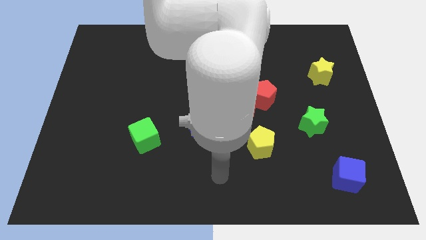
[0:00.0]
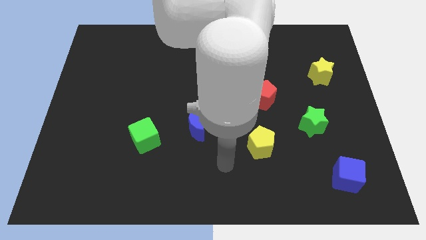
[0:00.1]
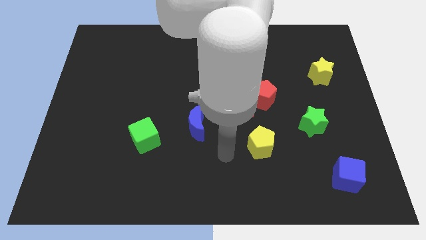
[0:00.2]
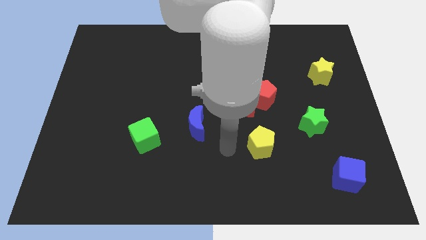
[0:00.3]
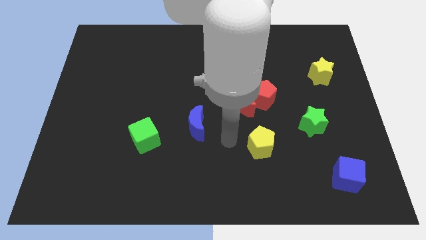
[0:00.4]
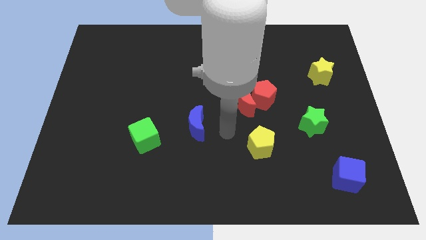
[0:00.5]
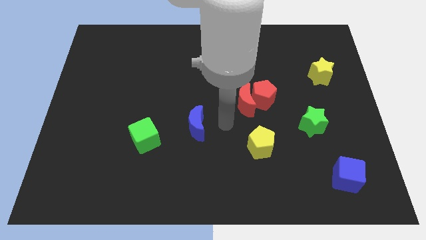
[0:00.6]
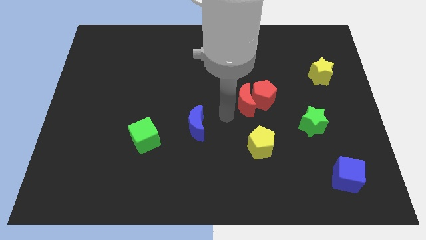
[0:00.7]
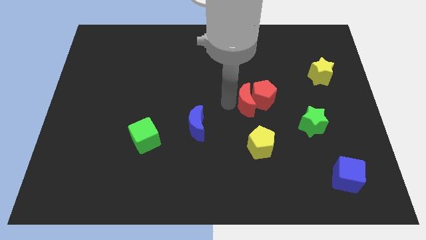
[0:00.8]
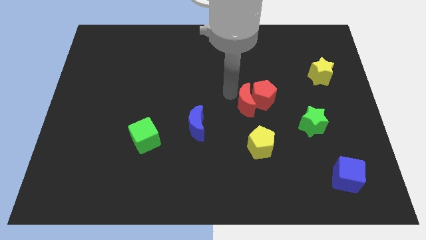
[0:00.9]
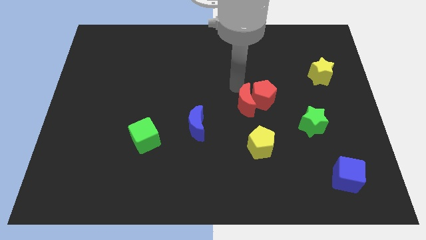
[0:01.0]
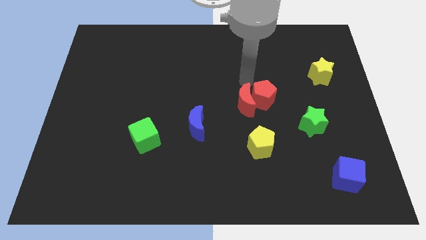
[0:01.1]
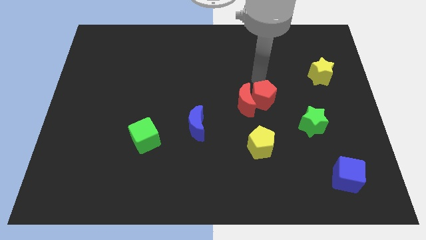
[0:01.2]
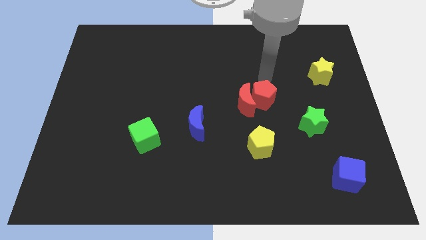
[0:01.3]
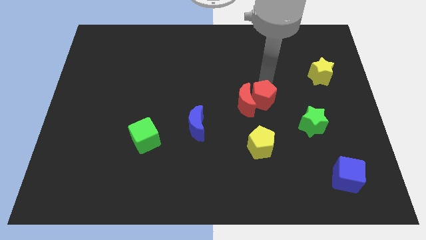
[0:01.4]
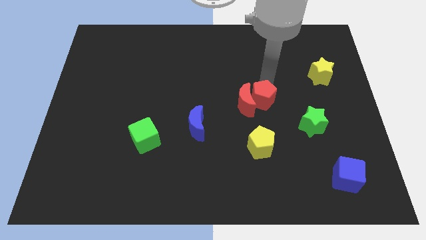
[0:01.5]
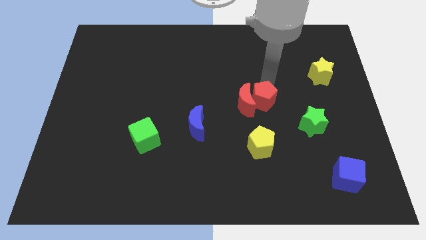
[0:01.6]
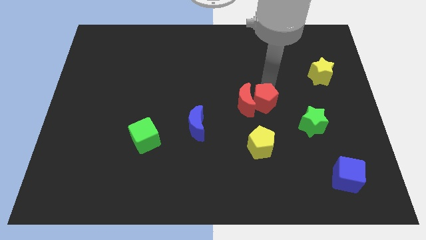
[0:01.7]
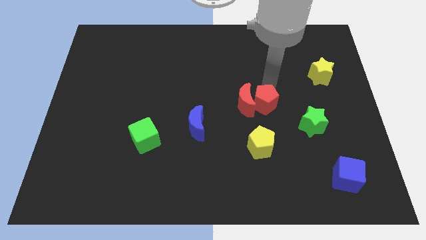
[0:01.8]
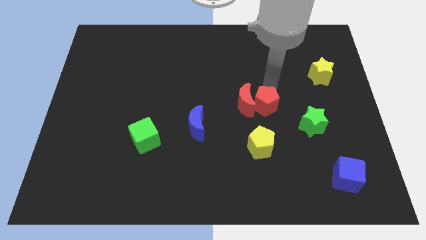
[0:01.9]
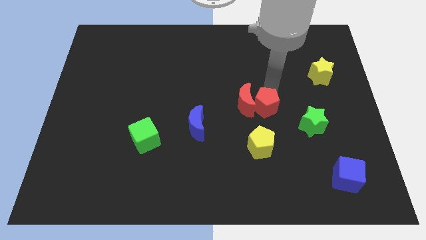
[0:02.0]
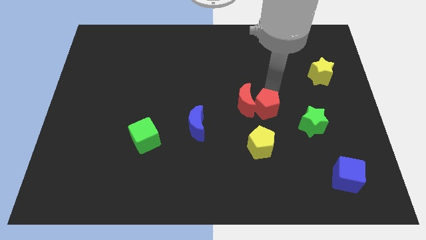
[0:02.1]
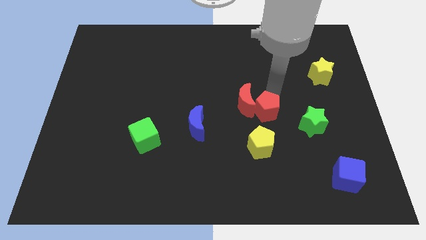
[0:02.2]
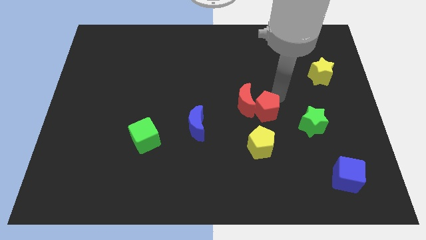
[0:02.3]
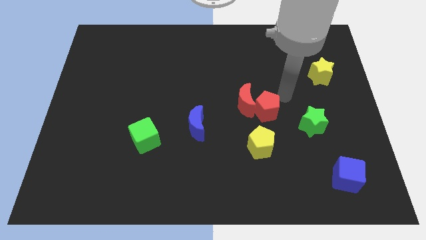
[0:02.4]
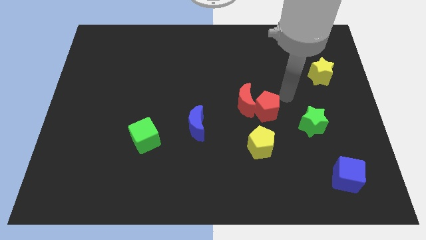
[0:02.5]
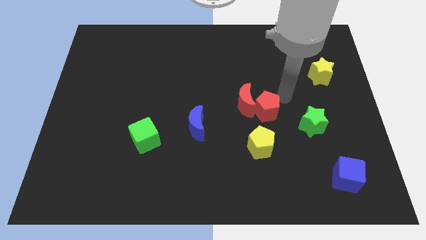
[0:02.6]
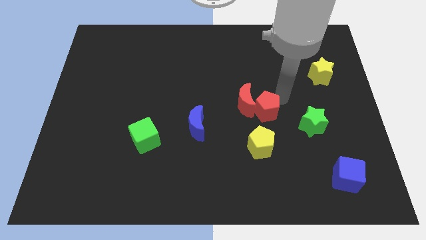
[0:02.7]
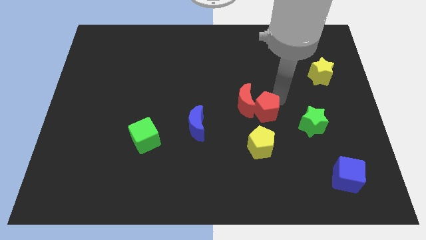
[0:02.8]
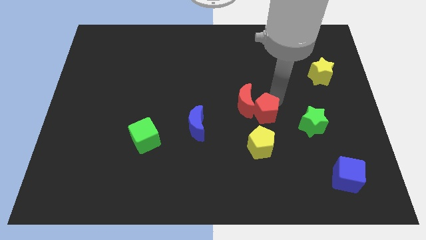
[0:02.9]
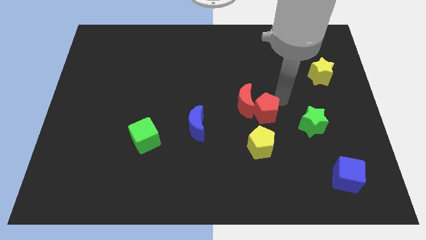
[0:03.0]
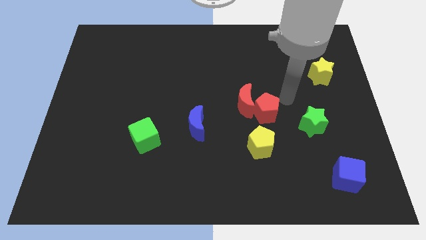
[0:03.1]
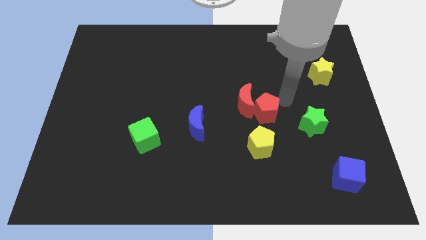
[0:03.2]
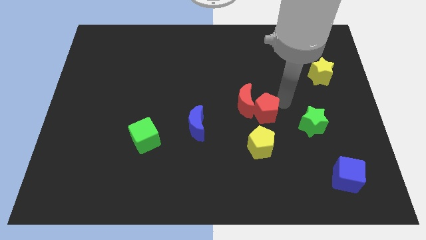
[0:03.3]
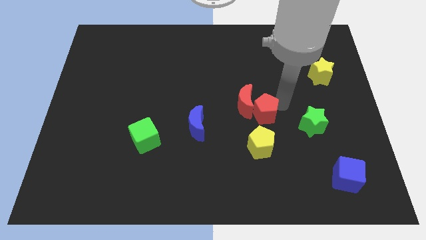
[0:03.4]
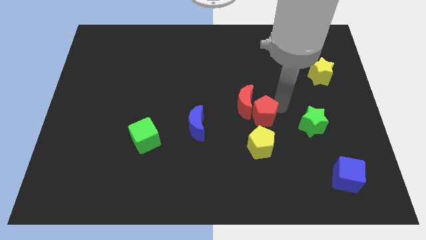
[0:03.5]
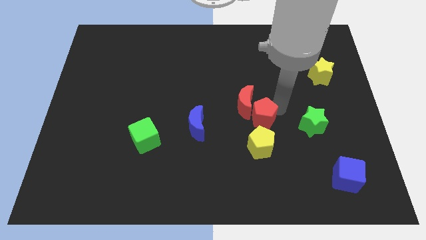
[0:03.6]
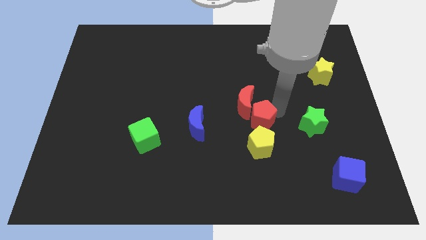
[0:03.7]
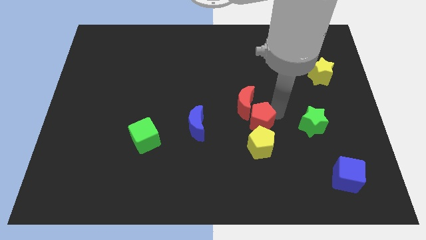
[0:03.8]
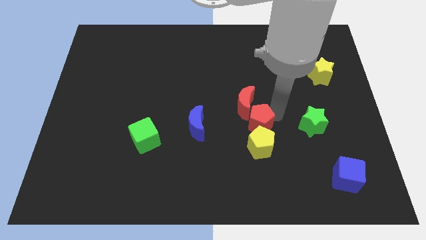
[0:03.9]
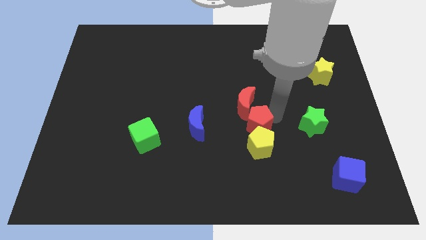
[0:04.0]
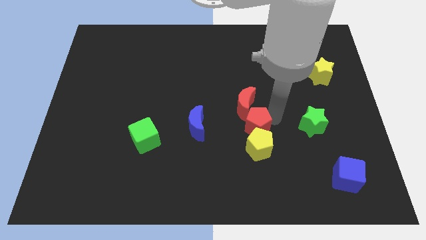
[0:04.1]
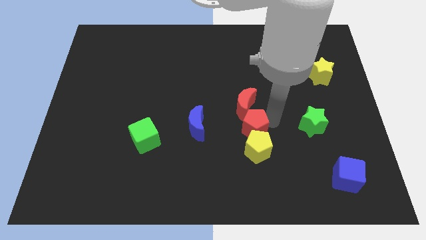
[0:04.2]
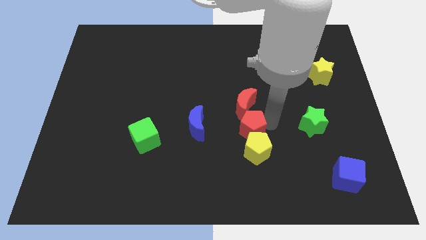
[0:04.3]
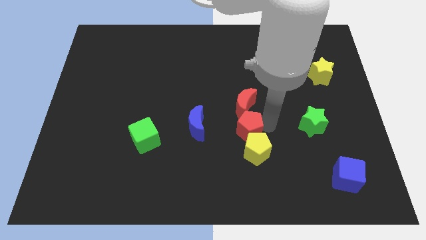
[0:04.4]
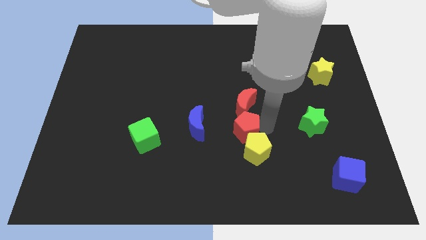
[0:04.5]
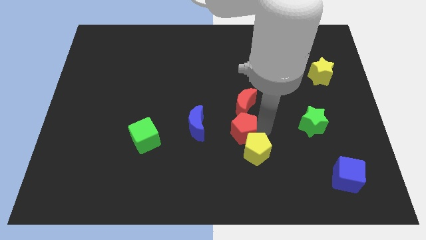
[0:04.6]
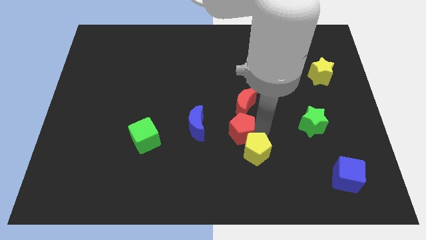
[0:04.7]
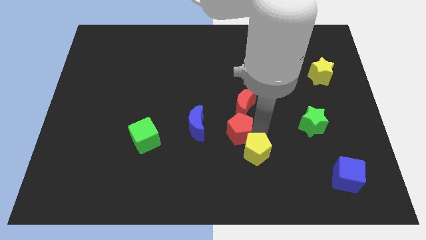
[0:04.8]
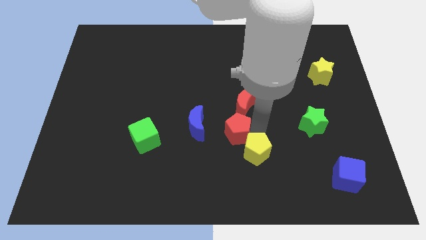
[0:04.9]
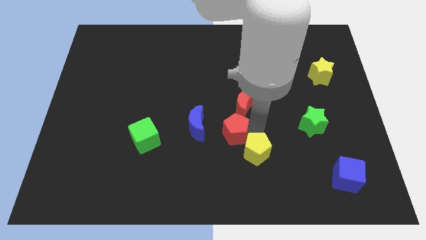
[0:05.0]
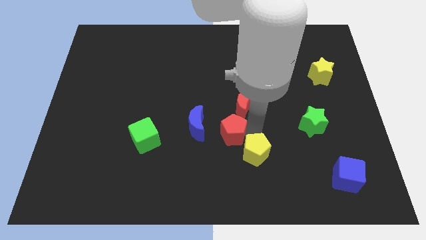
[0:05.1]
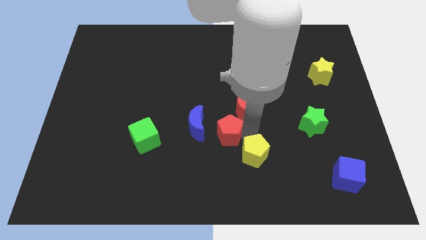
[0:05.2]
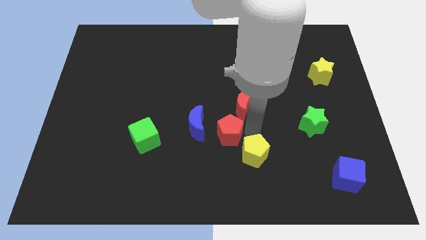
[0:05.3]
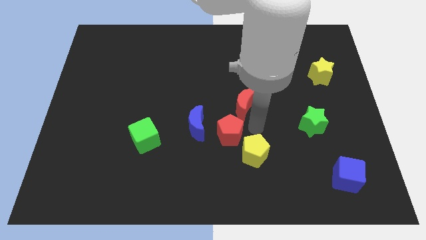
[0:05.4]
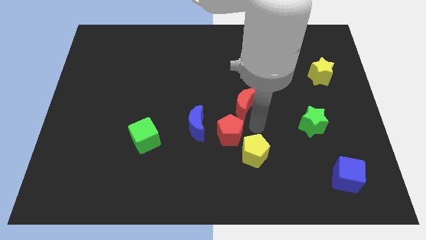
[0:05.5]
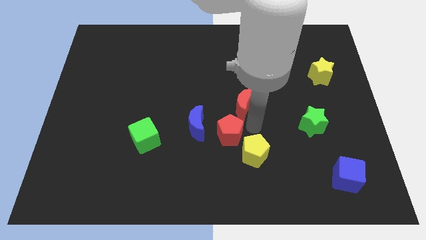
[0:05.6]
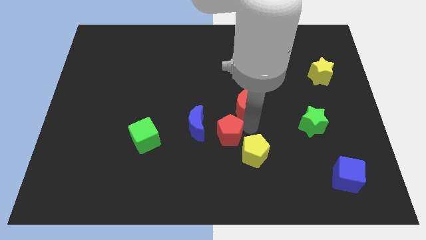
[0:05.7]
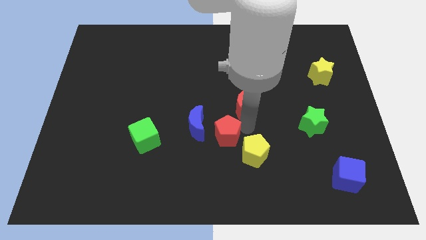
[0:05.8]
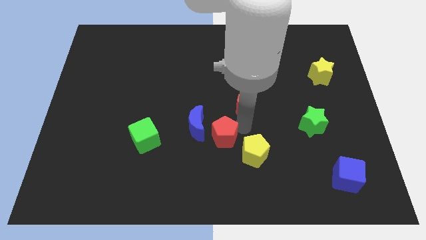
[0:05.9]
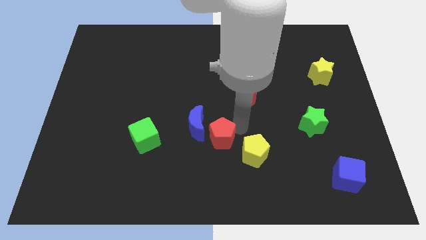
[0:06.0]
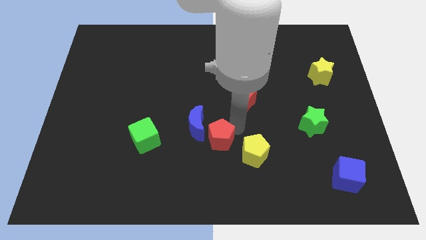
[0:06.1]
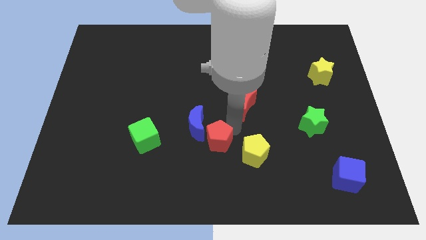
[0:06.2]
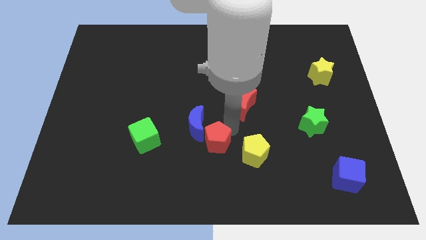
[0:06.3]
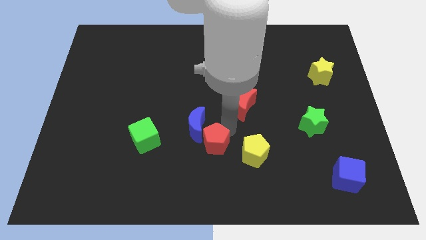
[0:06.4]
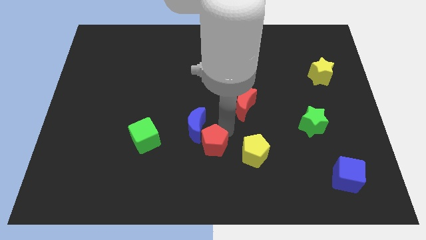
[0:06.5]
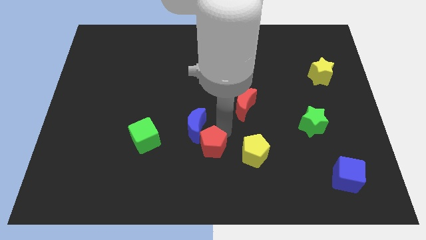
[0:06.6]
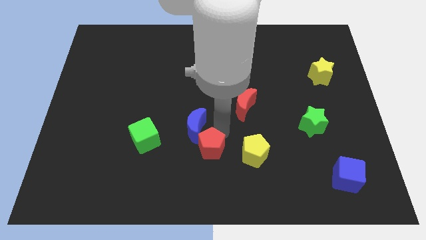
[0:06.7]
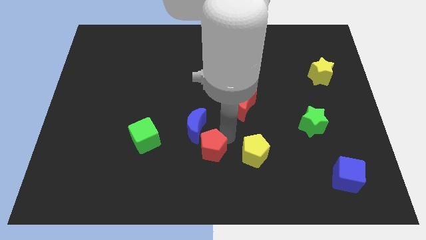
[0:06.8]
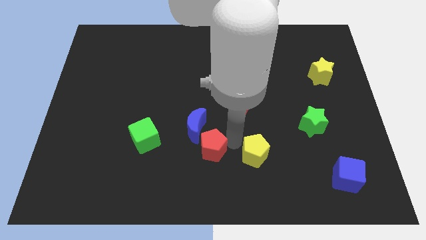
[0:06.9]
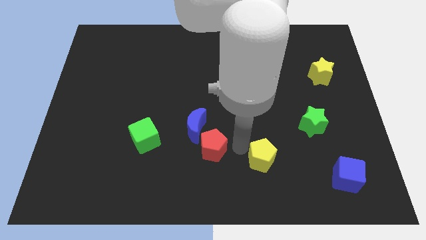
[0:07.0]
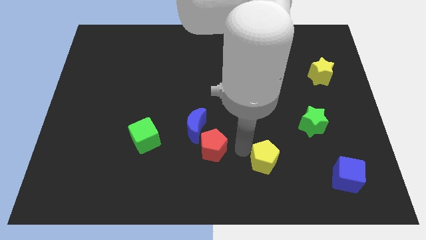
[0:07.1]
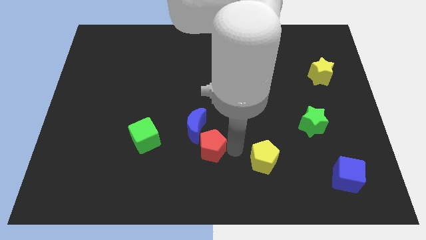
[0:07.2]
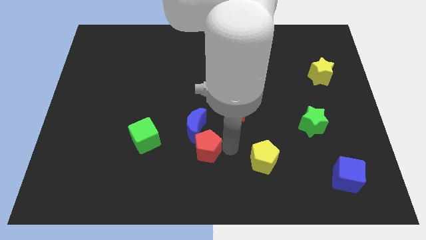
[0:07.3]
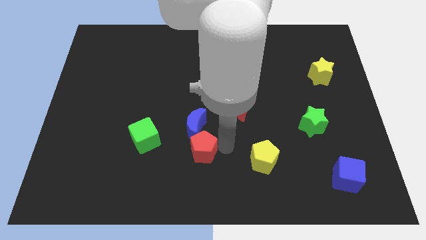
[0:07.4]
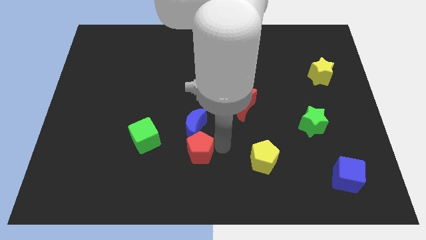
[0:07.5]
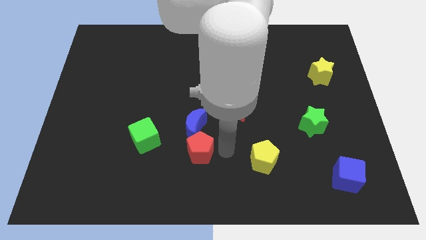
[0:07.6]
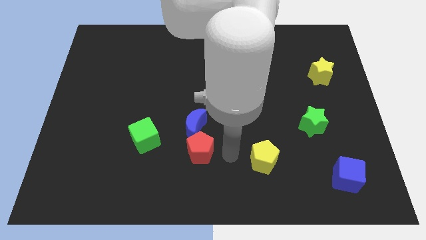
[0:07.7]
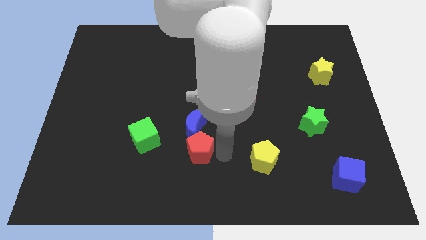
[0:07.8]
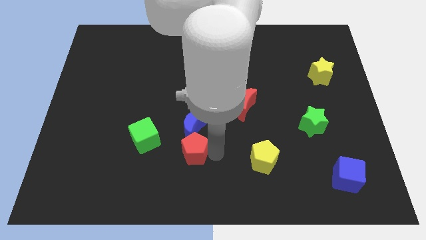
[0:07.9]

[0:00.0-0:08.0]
move the red pentagon diagonally down and to the left of the blue moon

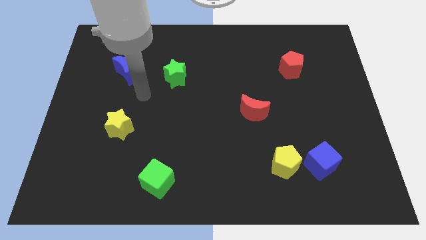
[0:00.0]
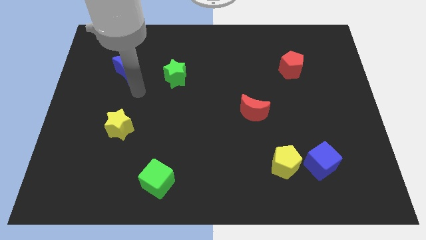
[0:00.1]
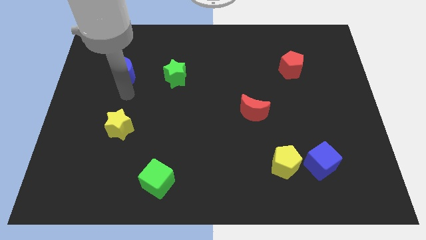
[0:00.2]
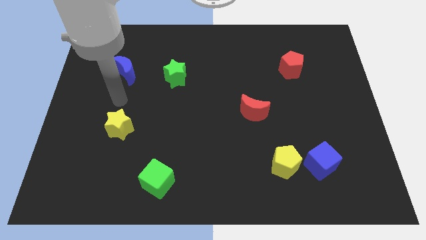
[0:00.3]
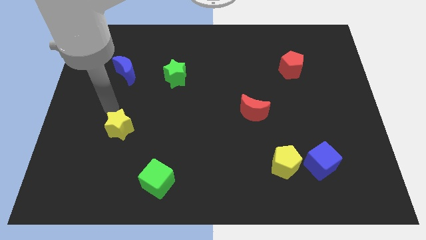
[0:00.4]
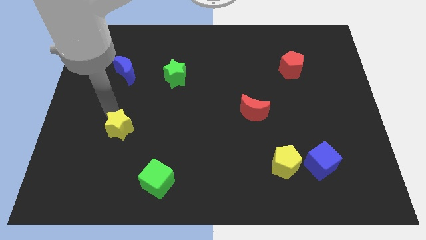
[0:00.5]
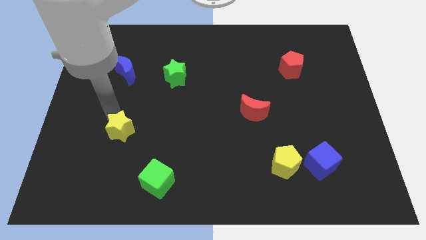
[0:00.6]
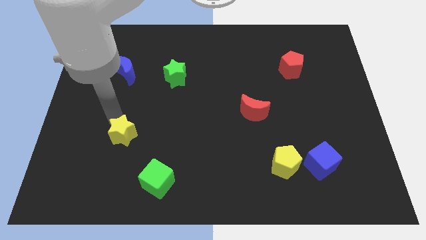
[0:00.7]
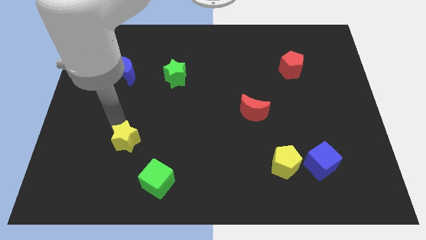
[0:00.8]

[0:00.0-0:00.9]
move the yellow star to the top left side of the green cube
